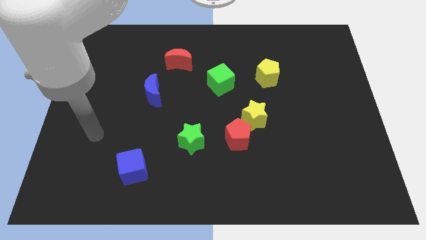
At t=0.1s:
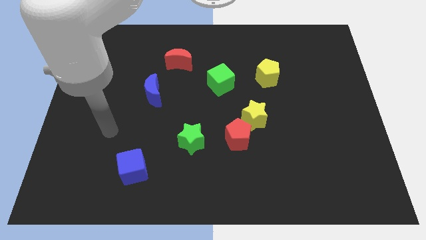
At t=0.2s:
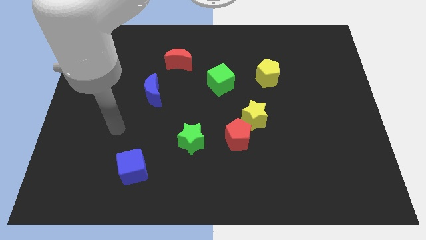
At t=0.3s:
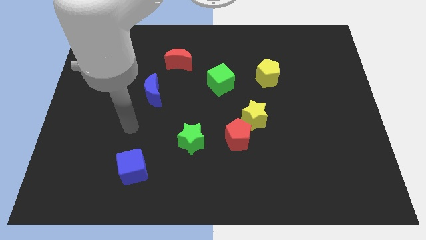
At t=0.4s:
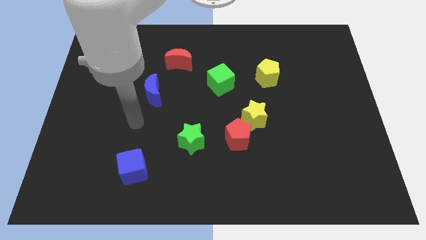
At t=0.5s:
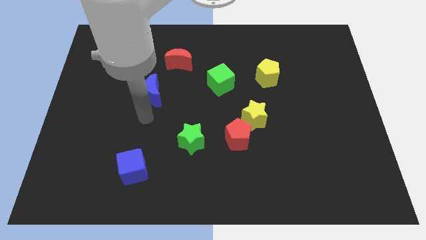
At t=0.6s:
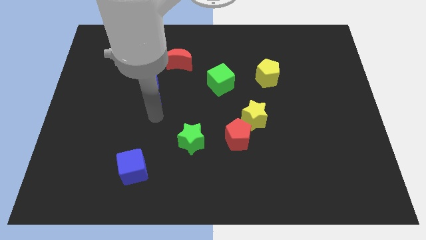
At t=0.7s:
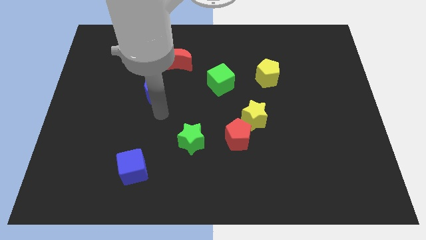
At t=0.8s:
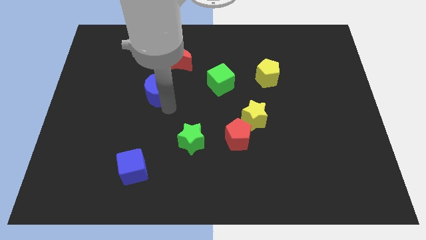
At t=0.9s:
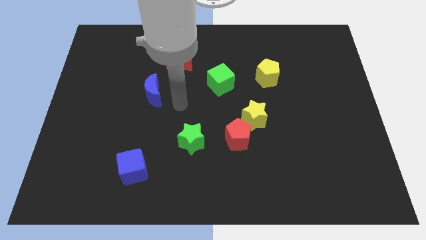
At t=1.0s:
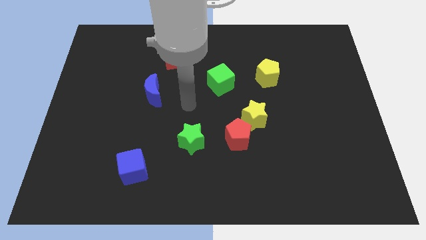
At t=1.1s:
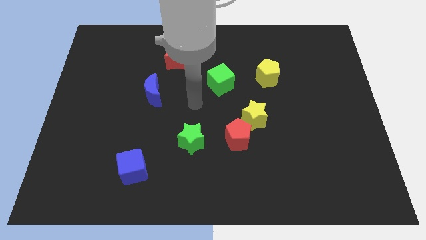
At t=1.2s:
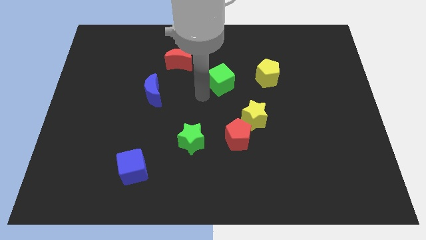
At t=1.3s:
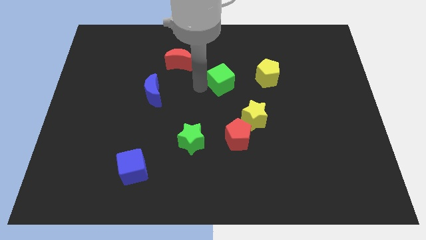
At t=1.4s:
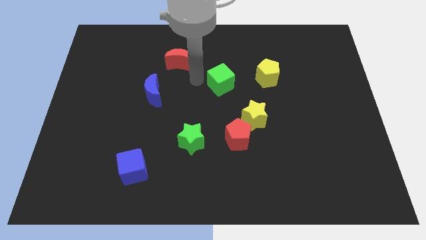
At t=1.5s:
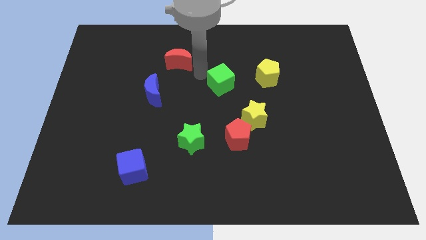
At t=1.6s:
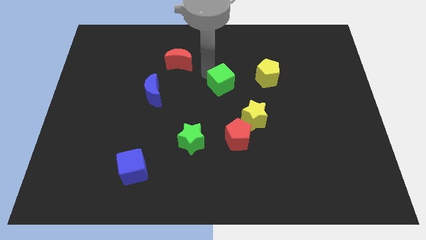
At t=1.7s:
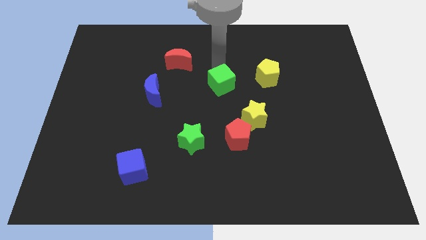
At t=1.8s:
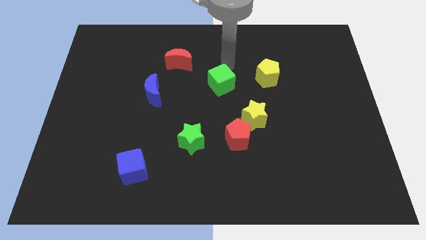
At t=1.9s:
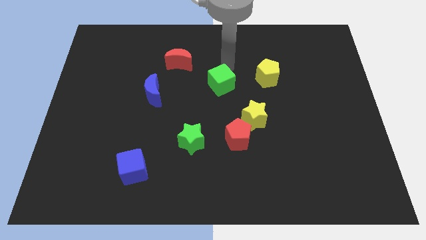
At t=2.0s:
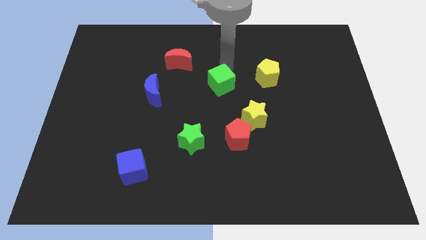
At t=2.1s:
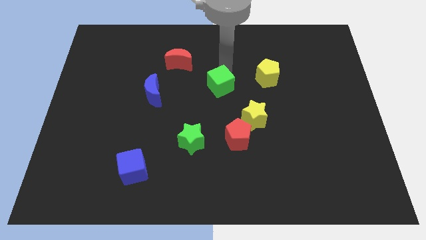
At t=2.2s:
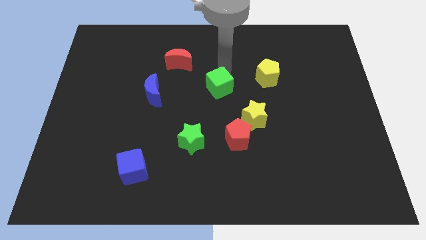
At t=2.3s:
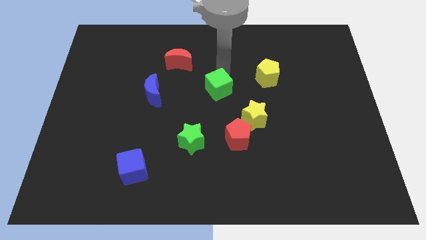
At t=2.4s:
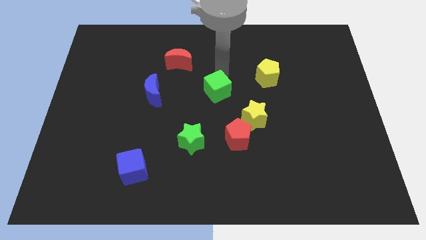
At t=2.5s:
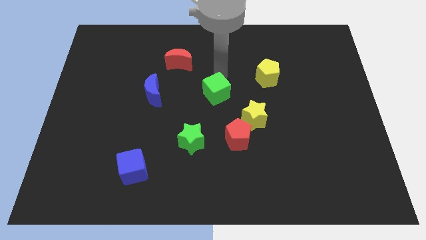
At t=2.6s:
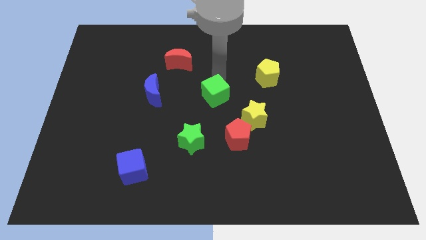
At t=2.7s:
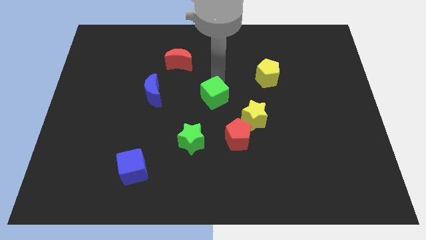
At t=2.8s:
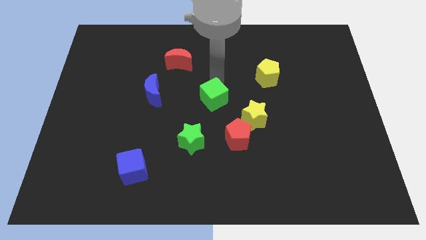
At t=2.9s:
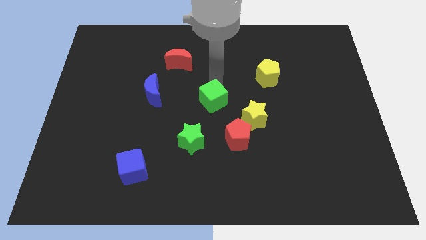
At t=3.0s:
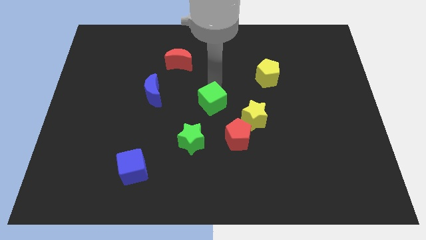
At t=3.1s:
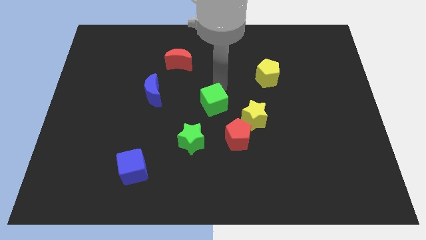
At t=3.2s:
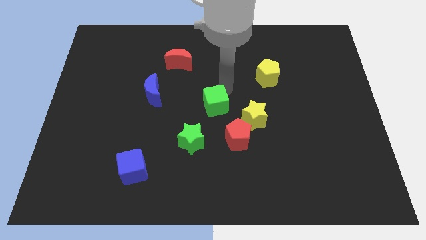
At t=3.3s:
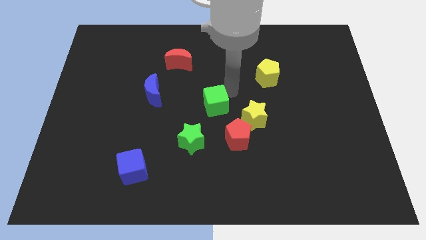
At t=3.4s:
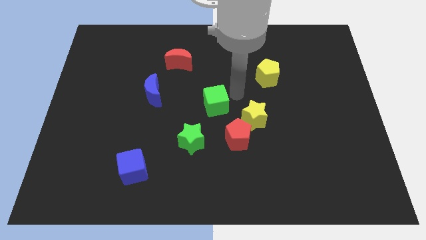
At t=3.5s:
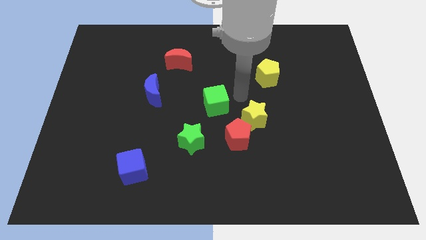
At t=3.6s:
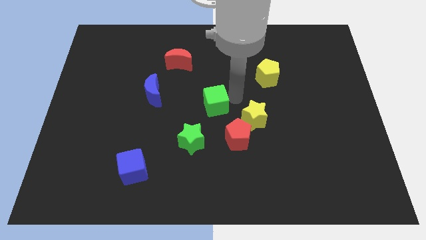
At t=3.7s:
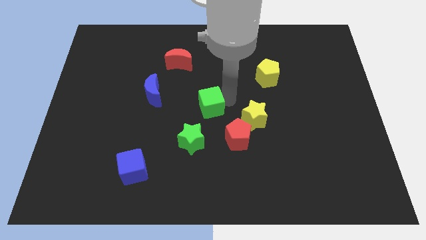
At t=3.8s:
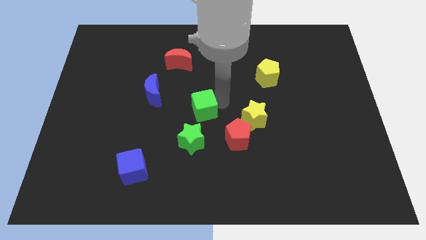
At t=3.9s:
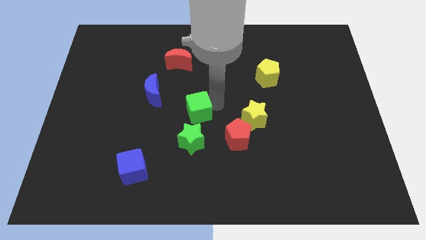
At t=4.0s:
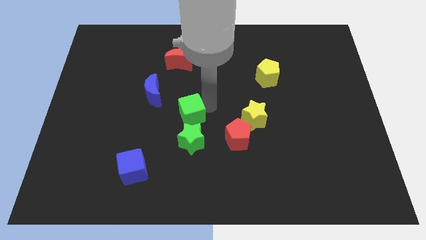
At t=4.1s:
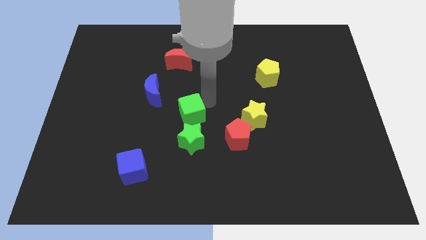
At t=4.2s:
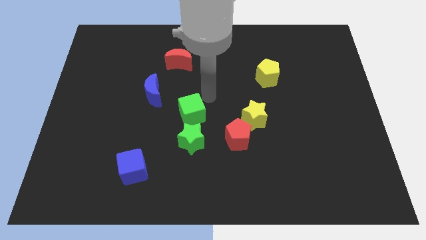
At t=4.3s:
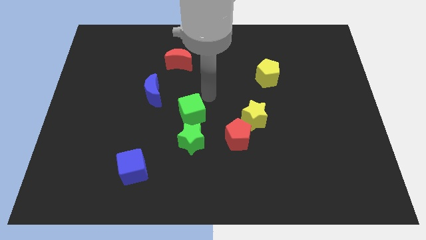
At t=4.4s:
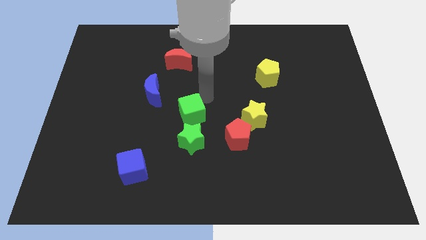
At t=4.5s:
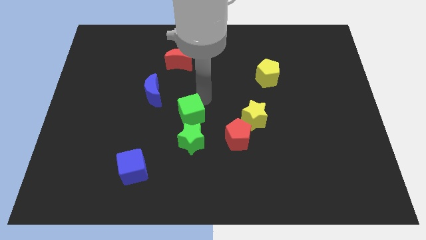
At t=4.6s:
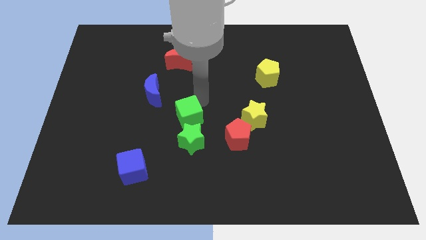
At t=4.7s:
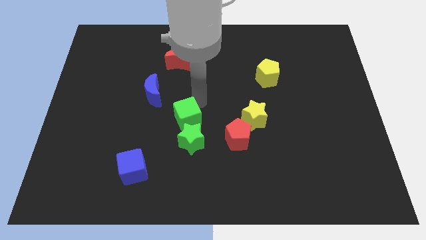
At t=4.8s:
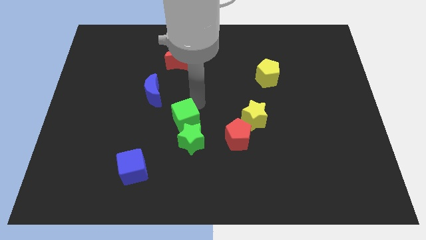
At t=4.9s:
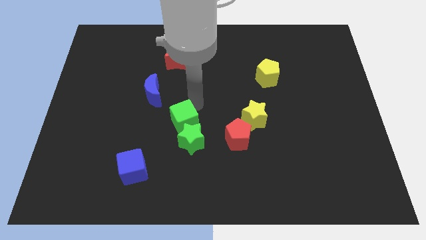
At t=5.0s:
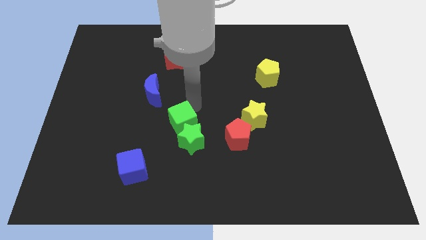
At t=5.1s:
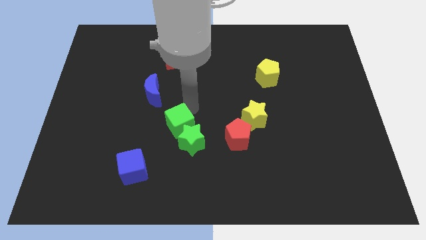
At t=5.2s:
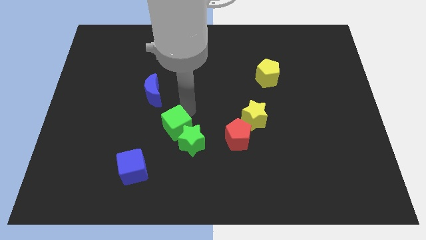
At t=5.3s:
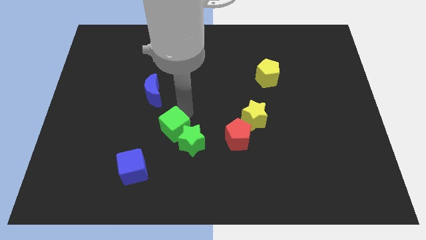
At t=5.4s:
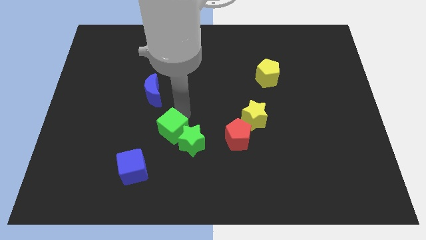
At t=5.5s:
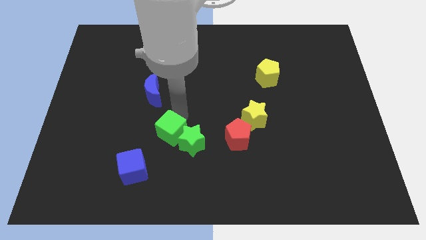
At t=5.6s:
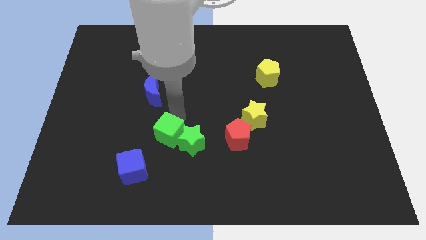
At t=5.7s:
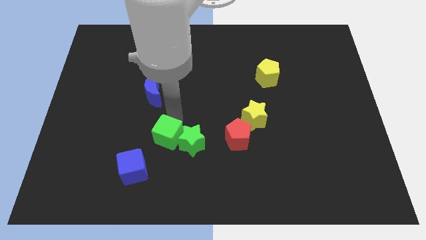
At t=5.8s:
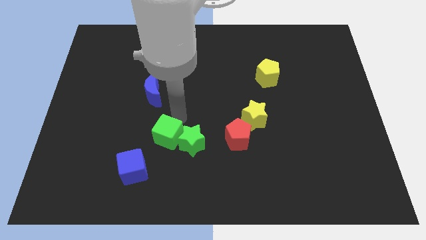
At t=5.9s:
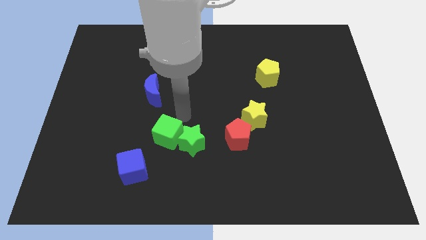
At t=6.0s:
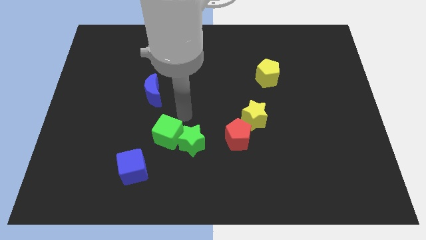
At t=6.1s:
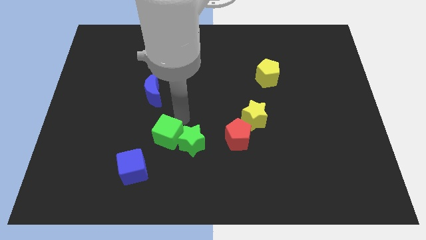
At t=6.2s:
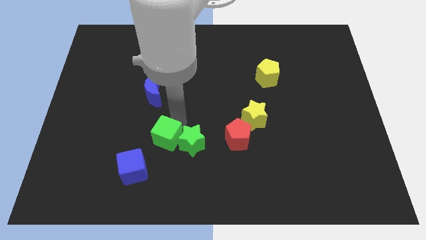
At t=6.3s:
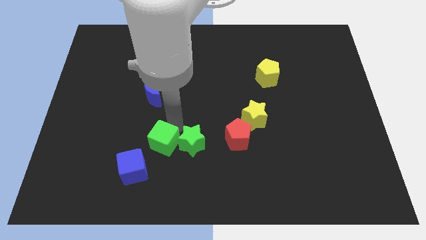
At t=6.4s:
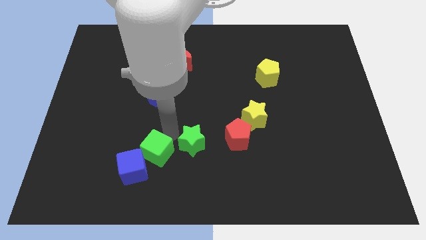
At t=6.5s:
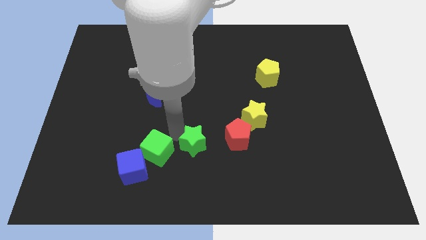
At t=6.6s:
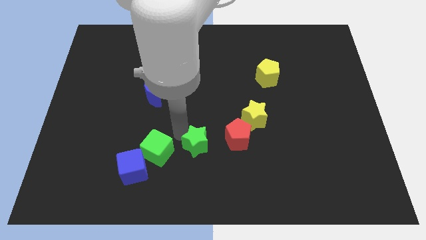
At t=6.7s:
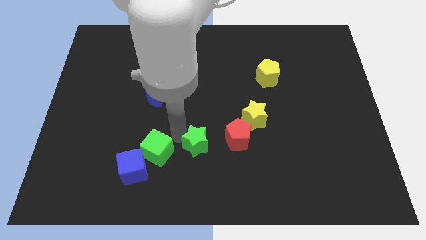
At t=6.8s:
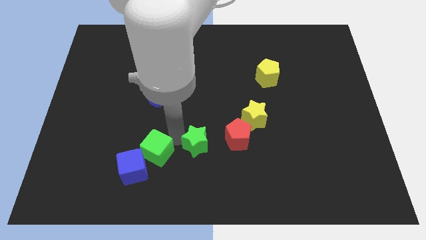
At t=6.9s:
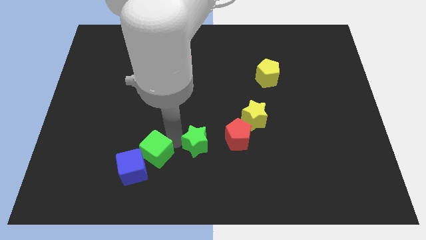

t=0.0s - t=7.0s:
slide the green cube towards the blue cube
